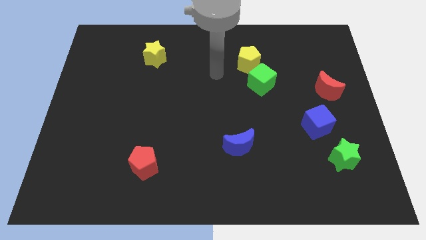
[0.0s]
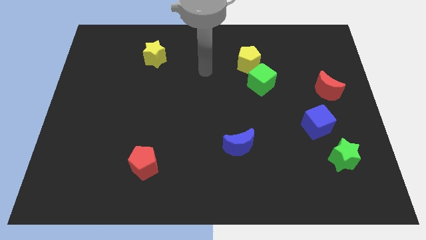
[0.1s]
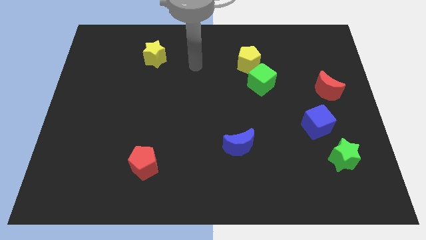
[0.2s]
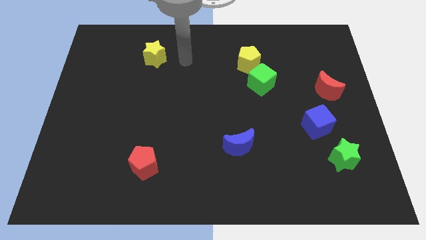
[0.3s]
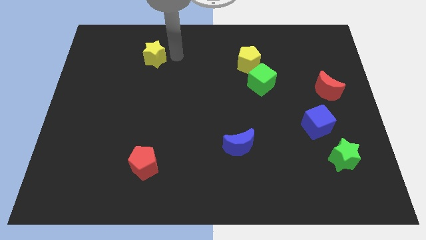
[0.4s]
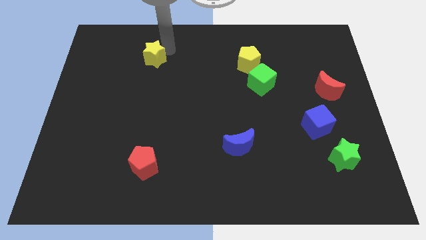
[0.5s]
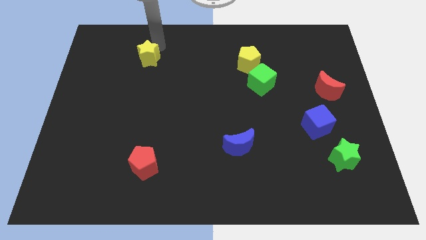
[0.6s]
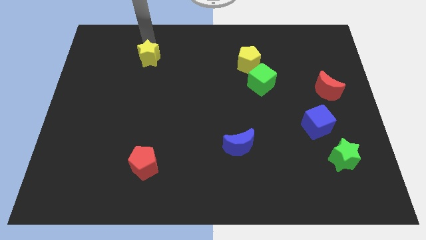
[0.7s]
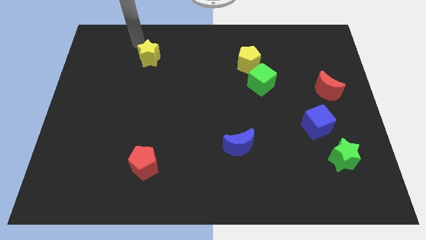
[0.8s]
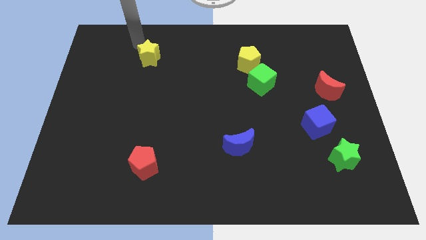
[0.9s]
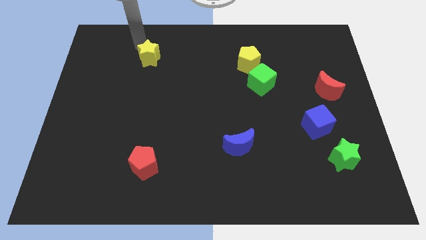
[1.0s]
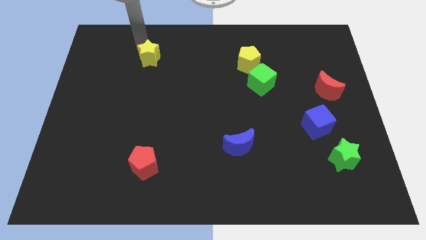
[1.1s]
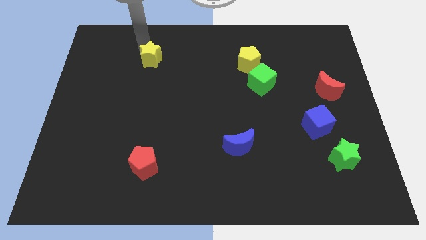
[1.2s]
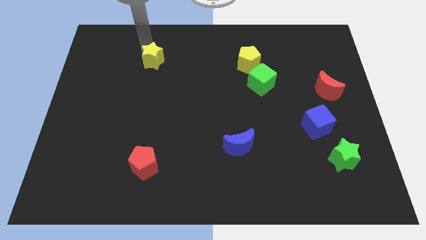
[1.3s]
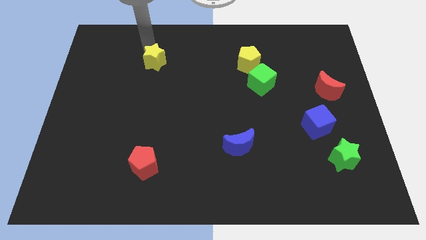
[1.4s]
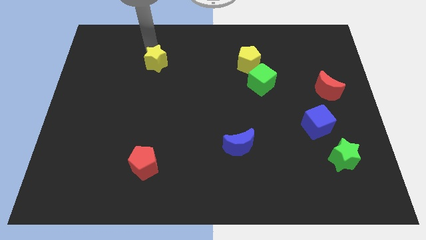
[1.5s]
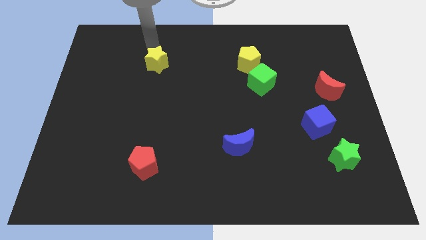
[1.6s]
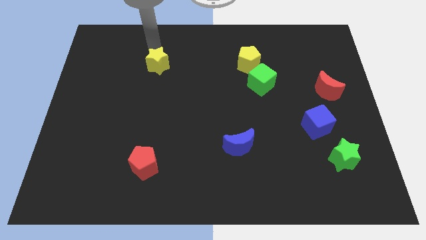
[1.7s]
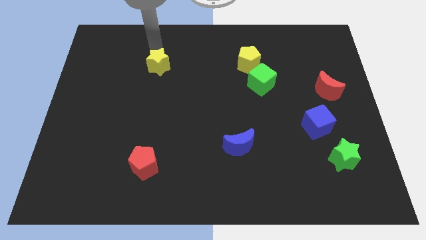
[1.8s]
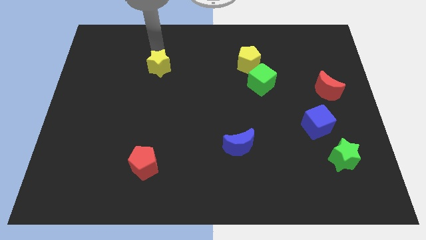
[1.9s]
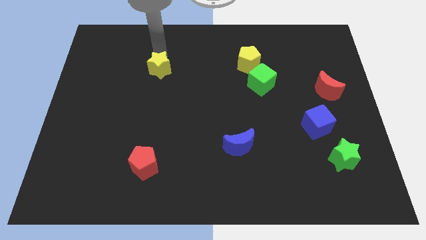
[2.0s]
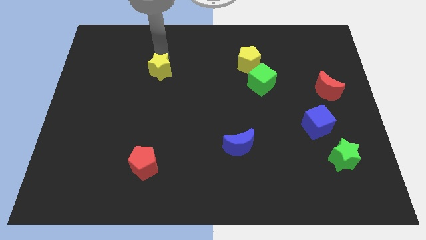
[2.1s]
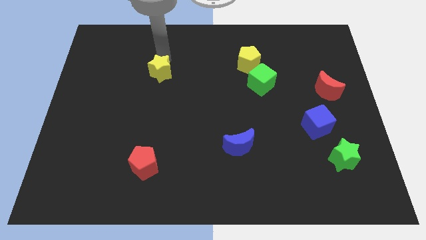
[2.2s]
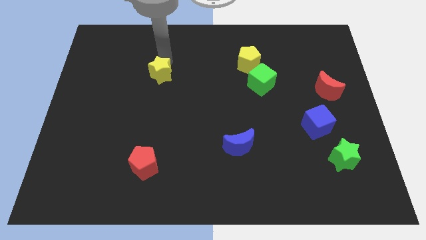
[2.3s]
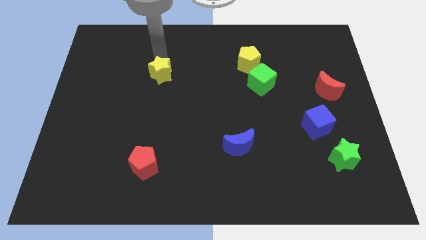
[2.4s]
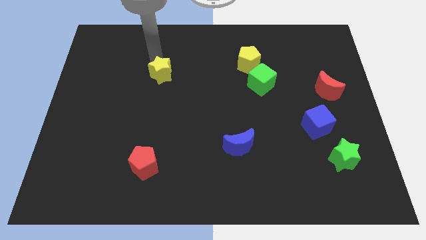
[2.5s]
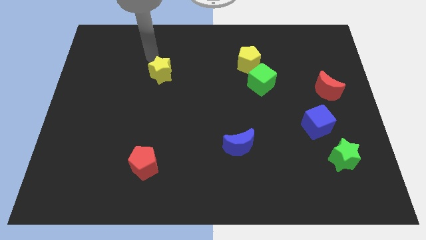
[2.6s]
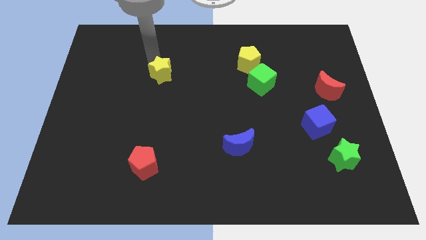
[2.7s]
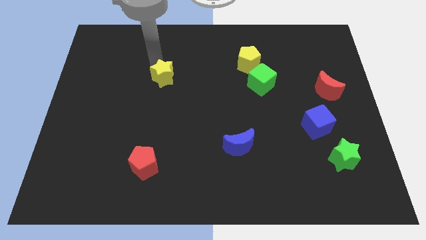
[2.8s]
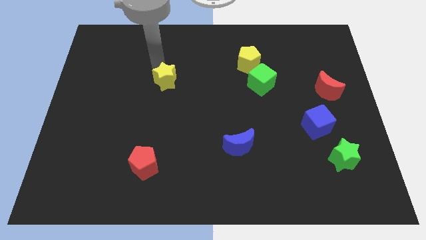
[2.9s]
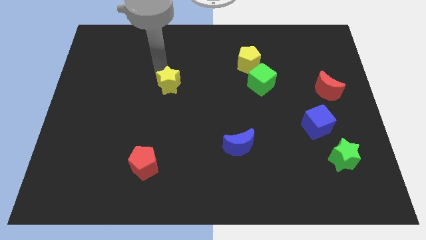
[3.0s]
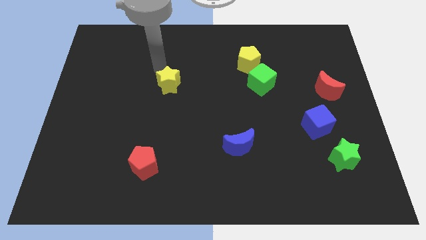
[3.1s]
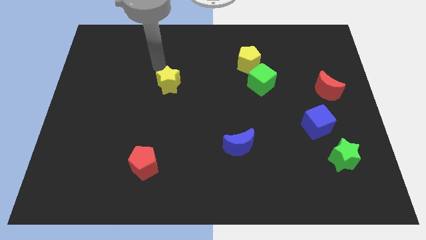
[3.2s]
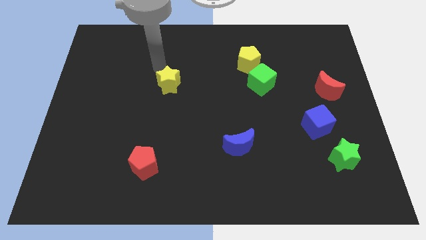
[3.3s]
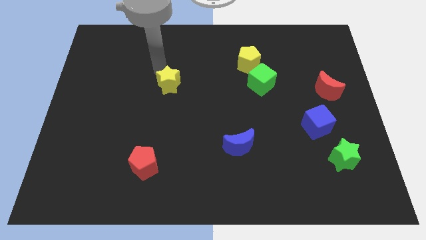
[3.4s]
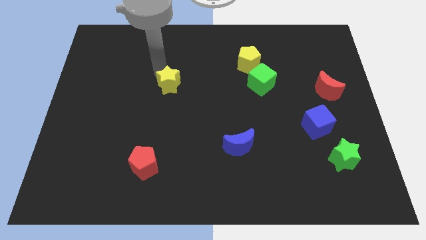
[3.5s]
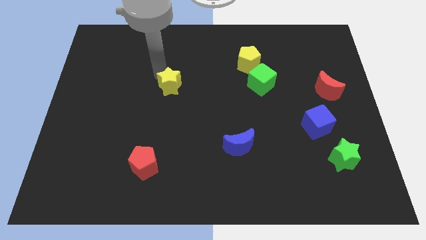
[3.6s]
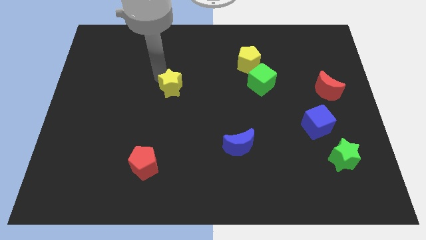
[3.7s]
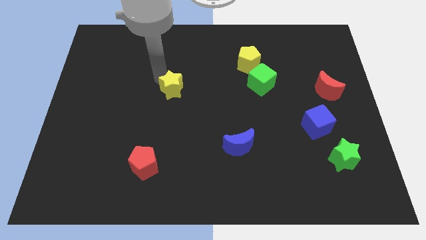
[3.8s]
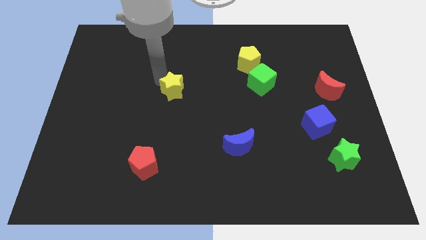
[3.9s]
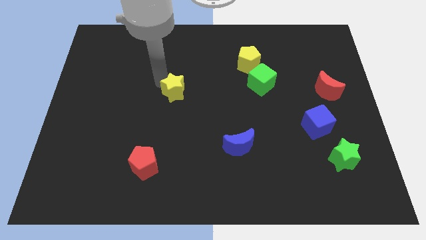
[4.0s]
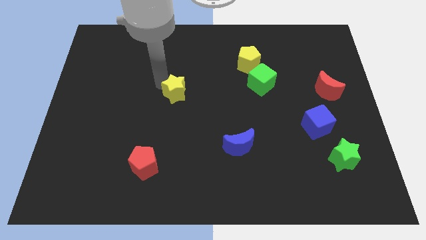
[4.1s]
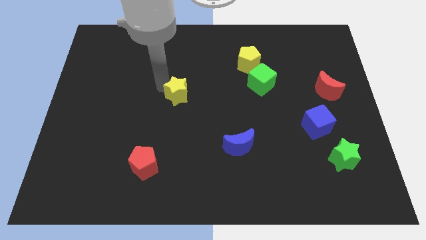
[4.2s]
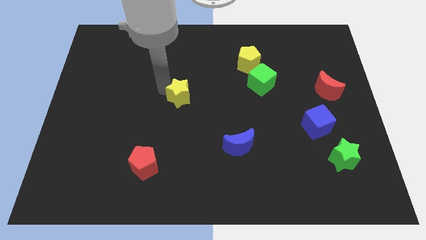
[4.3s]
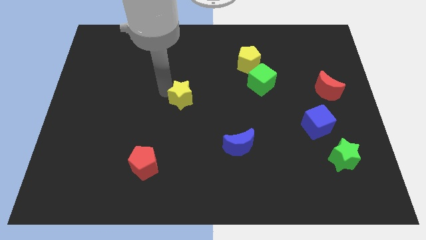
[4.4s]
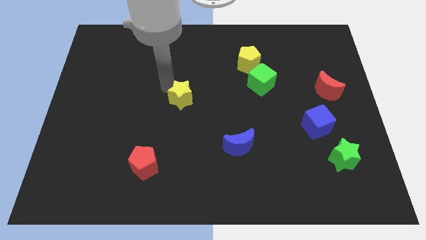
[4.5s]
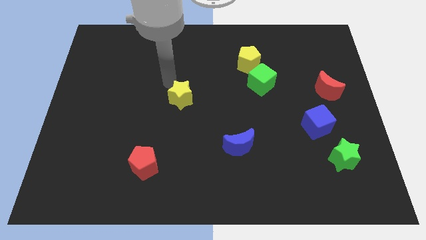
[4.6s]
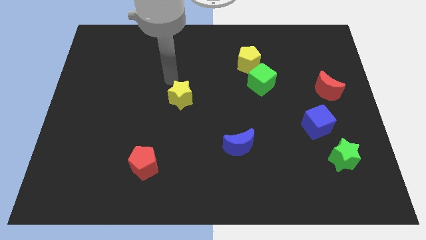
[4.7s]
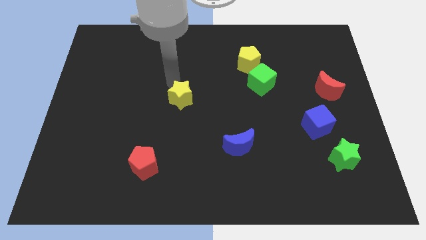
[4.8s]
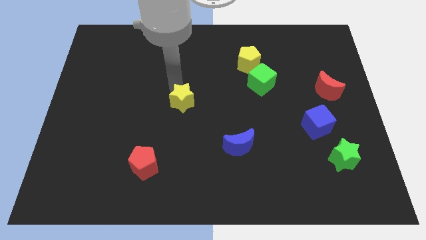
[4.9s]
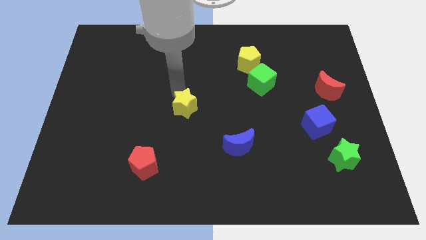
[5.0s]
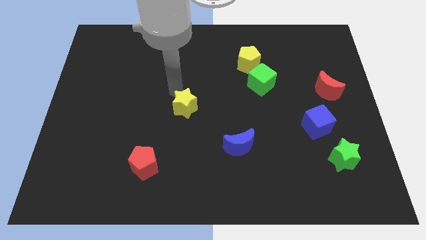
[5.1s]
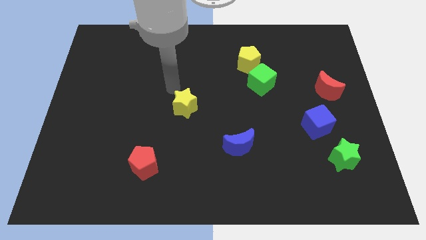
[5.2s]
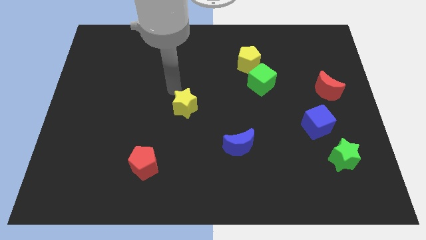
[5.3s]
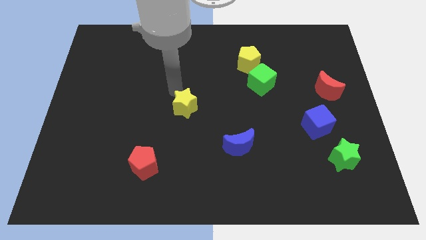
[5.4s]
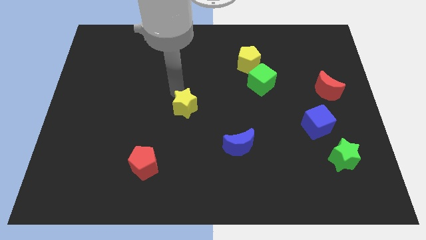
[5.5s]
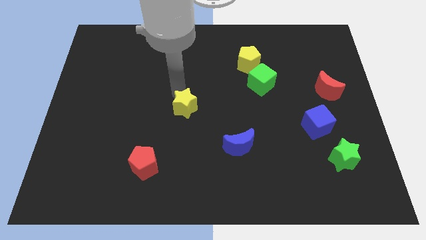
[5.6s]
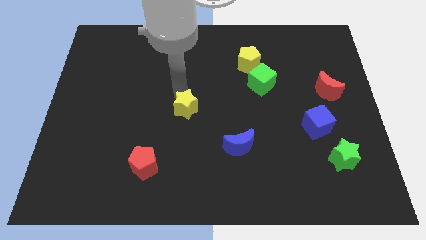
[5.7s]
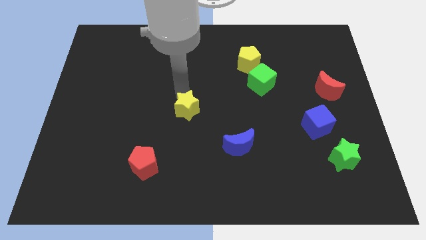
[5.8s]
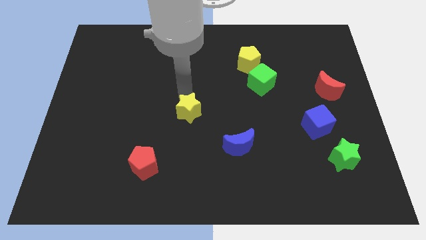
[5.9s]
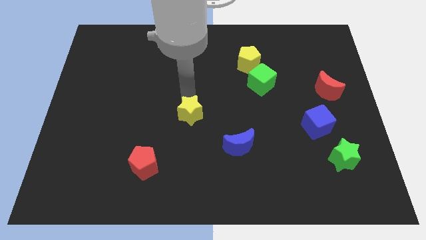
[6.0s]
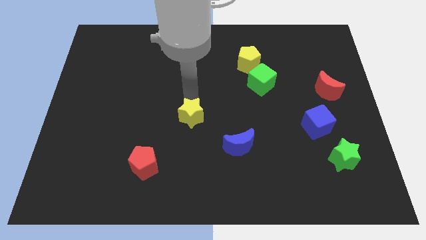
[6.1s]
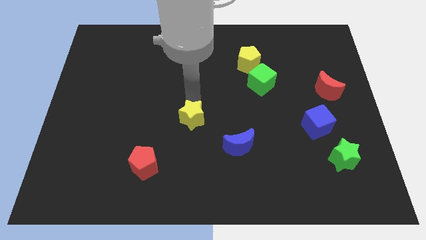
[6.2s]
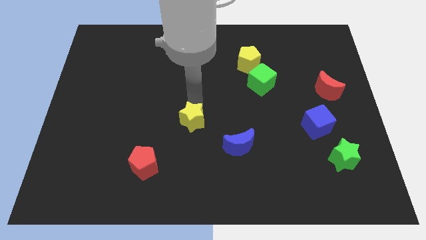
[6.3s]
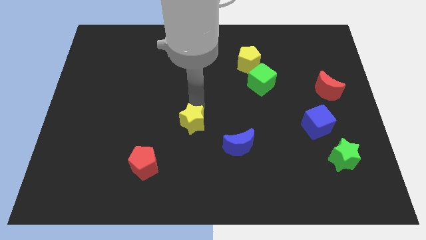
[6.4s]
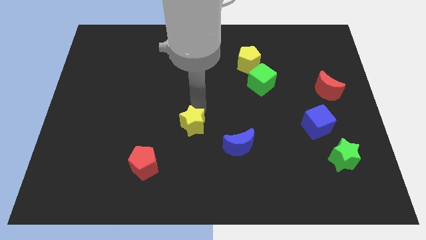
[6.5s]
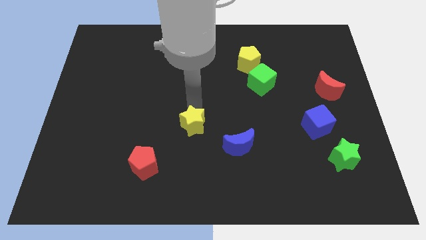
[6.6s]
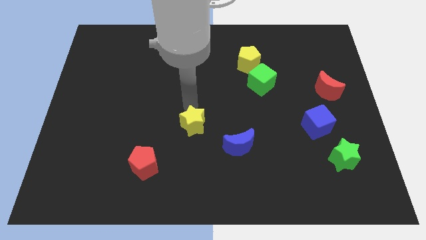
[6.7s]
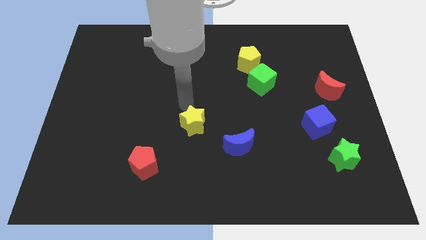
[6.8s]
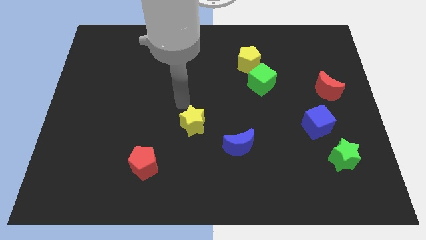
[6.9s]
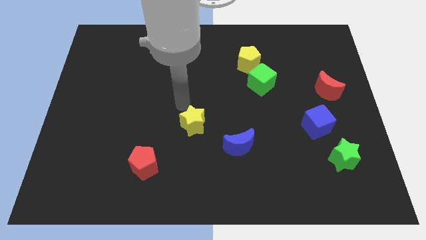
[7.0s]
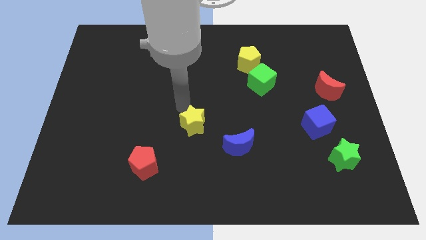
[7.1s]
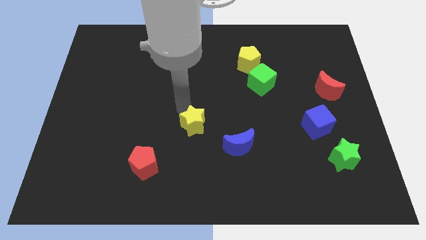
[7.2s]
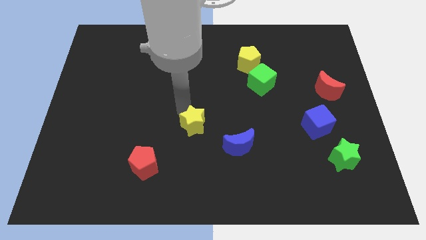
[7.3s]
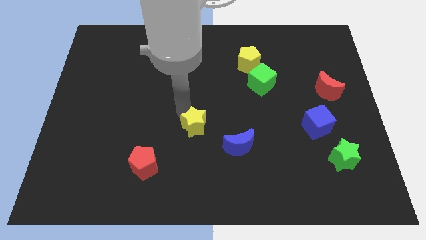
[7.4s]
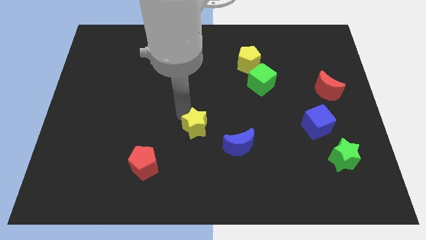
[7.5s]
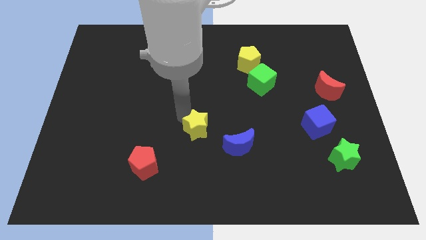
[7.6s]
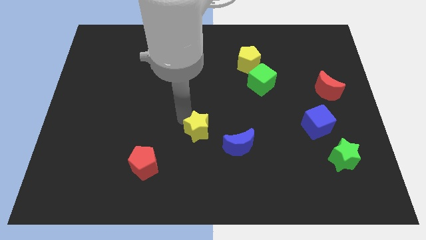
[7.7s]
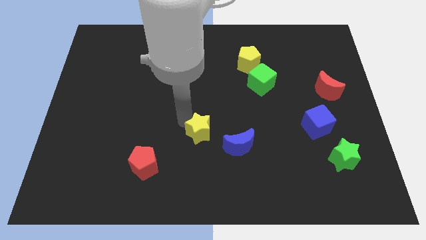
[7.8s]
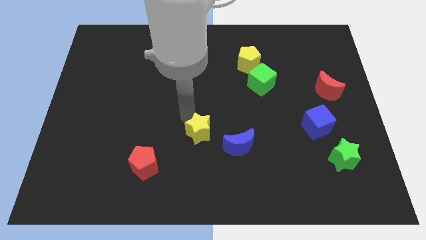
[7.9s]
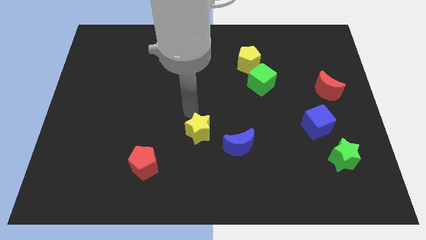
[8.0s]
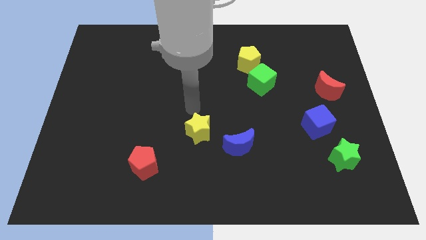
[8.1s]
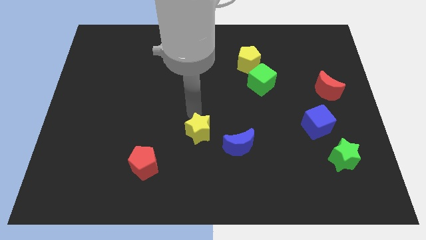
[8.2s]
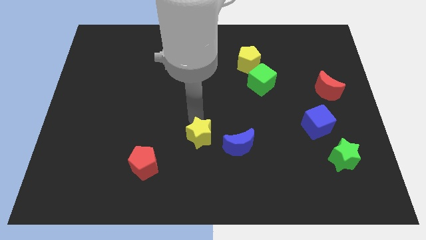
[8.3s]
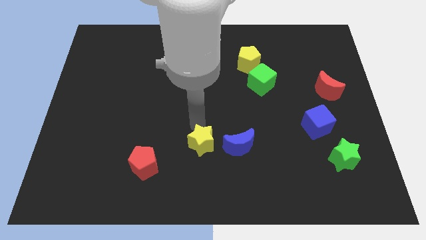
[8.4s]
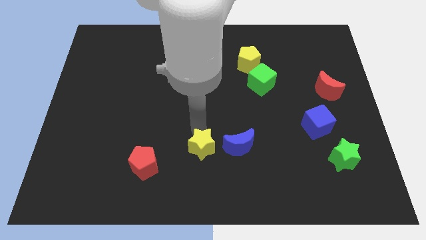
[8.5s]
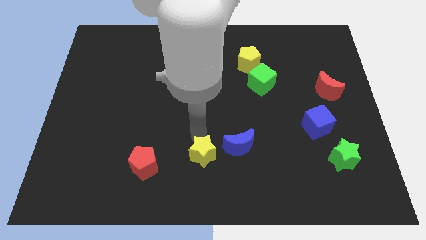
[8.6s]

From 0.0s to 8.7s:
put the yellow star to the bottom left of the blue moon
